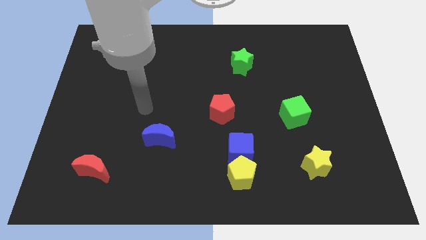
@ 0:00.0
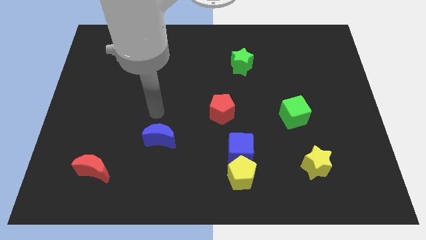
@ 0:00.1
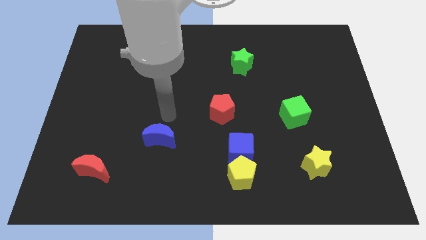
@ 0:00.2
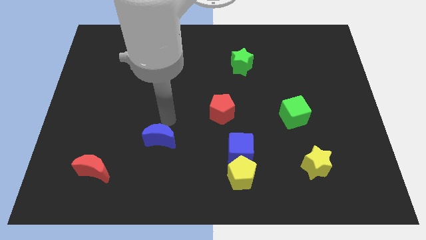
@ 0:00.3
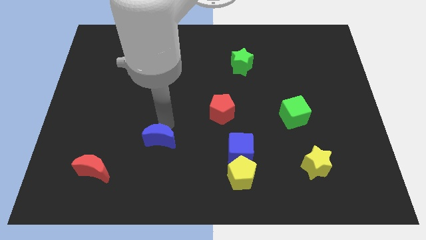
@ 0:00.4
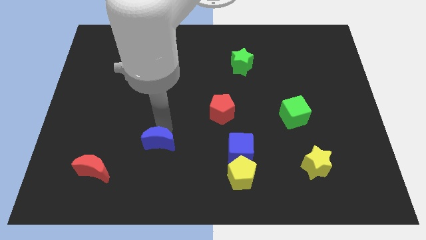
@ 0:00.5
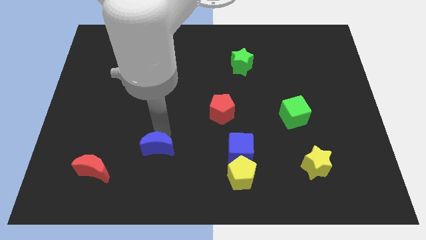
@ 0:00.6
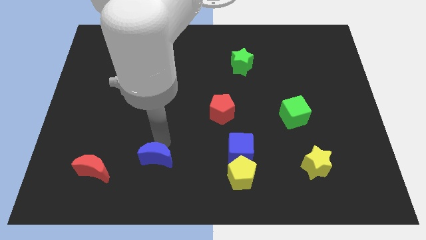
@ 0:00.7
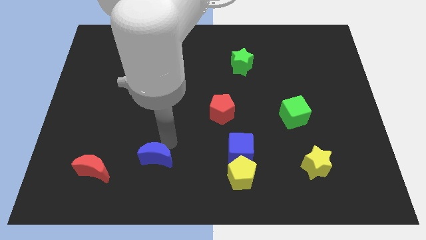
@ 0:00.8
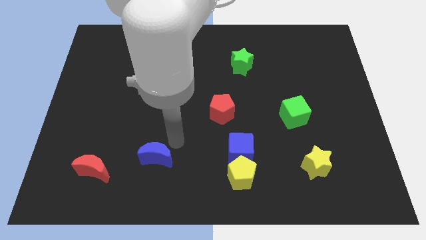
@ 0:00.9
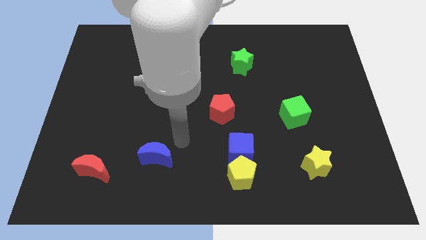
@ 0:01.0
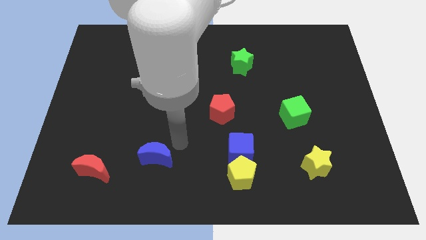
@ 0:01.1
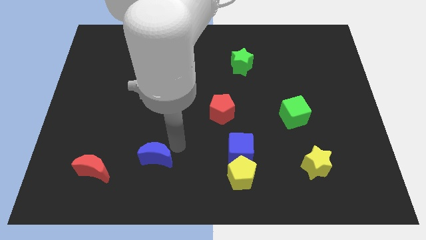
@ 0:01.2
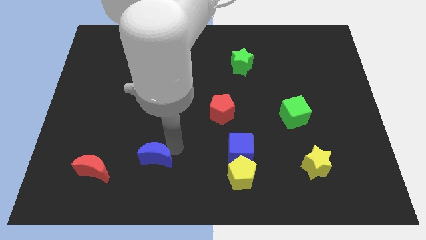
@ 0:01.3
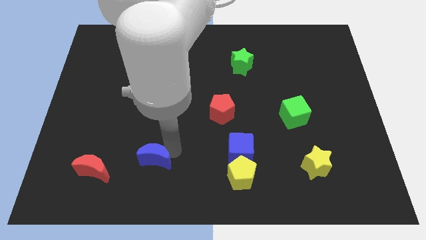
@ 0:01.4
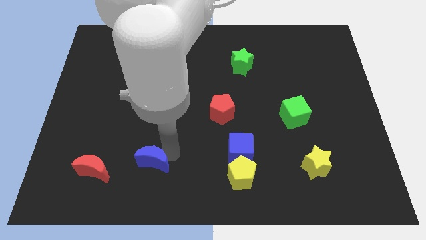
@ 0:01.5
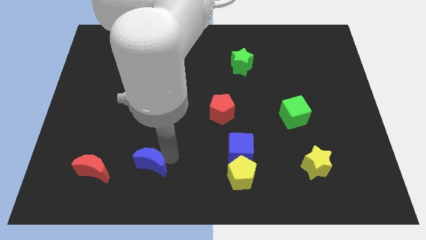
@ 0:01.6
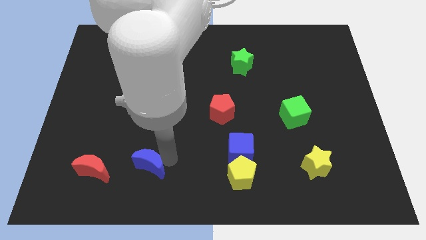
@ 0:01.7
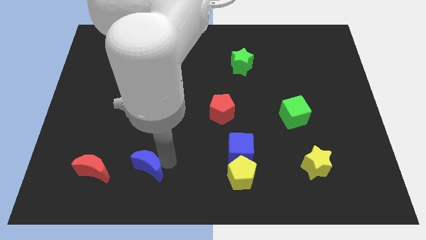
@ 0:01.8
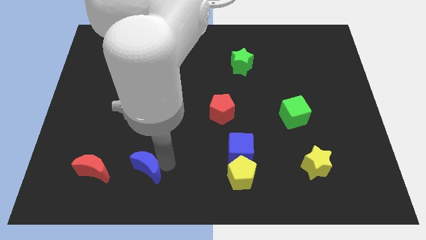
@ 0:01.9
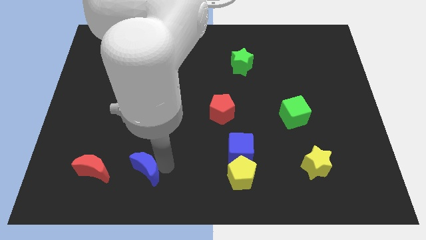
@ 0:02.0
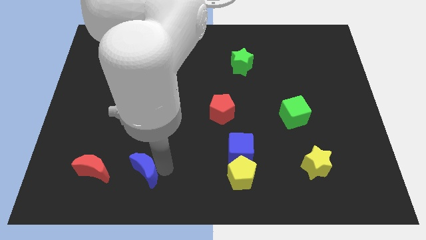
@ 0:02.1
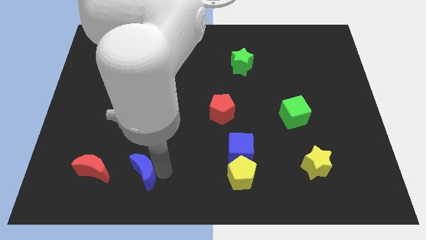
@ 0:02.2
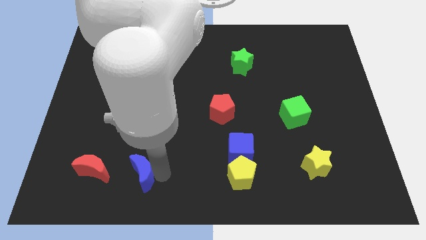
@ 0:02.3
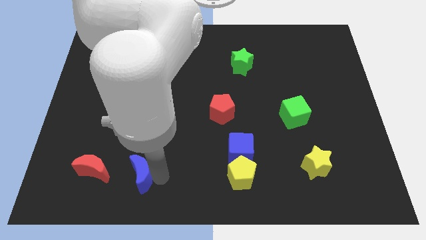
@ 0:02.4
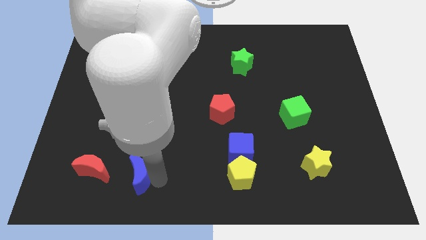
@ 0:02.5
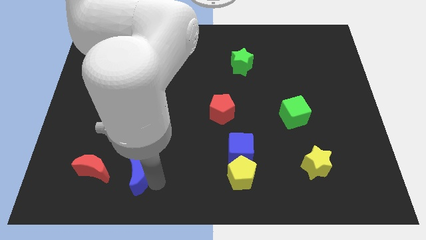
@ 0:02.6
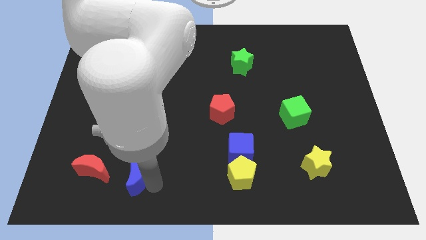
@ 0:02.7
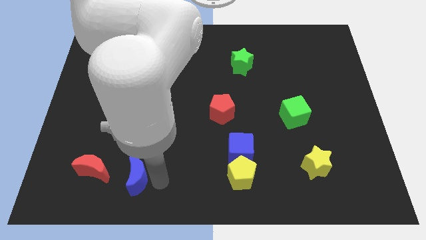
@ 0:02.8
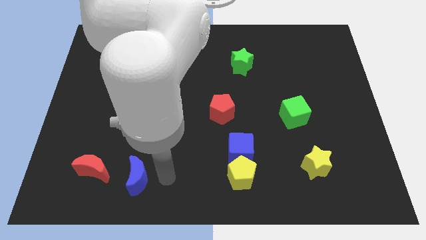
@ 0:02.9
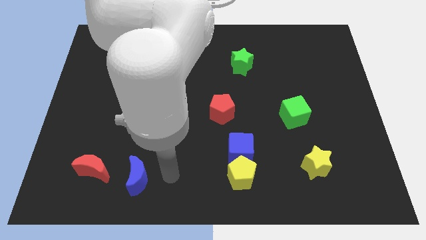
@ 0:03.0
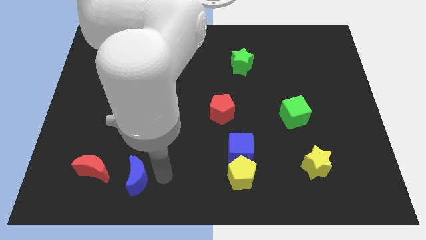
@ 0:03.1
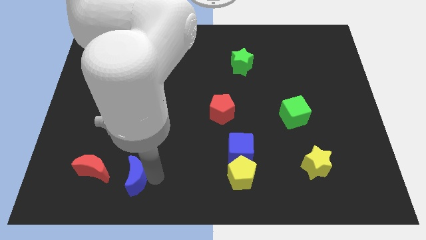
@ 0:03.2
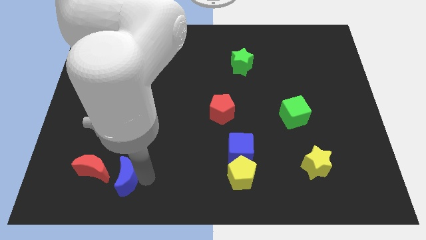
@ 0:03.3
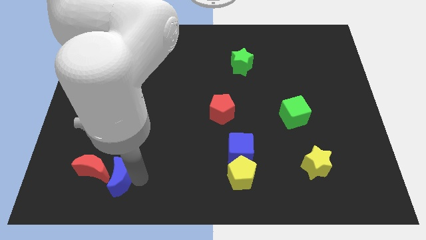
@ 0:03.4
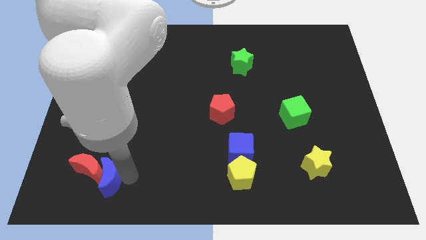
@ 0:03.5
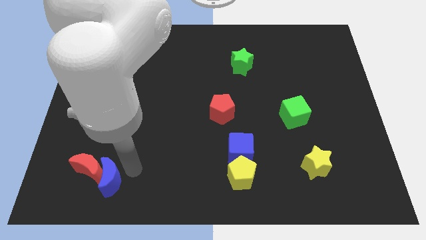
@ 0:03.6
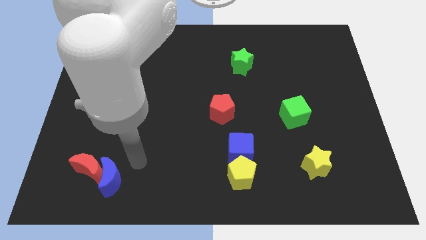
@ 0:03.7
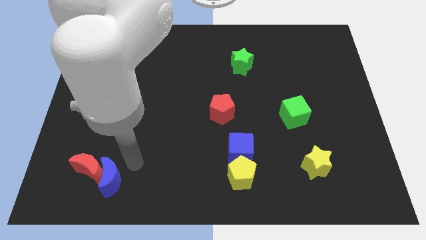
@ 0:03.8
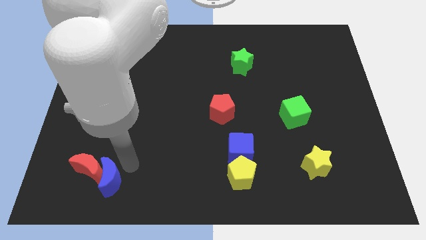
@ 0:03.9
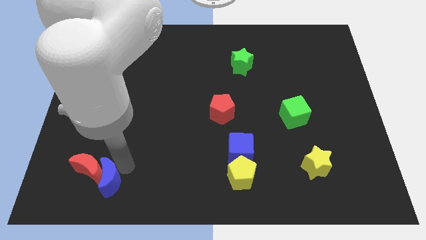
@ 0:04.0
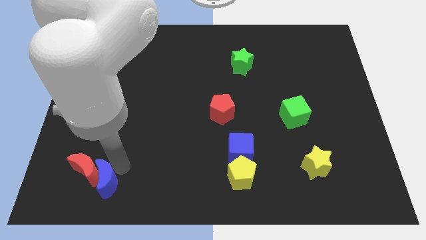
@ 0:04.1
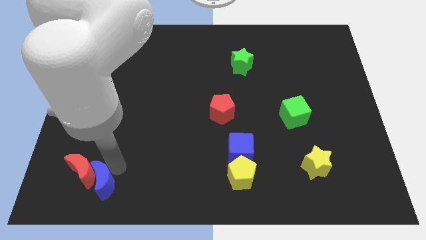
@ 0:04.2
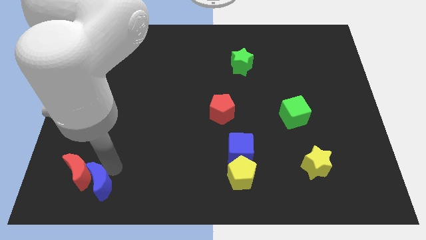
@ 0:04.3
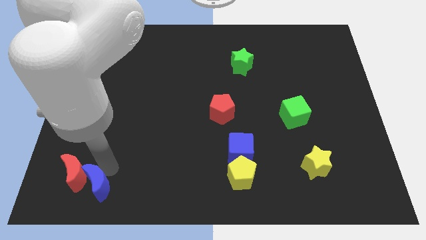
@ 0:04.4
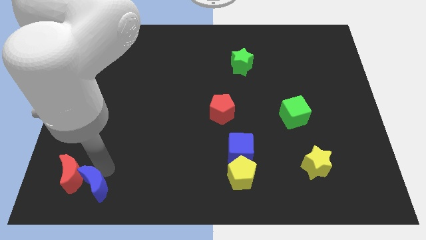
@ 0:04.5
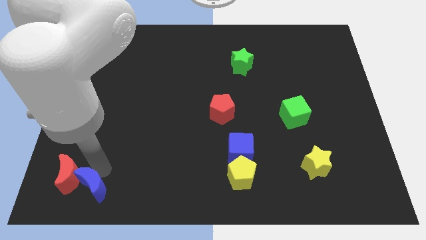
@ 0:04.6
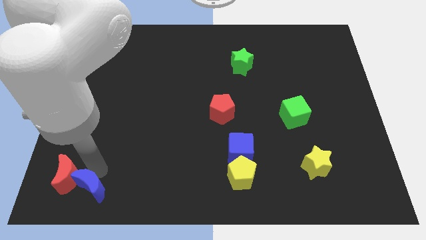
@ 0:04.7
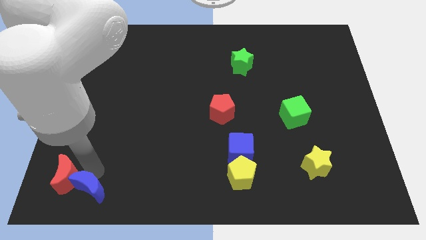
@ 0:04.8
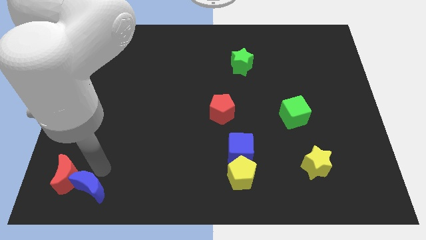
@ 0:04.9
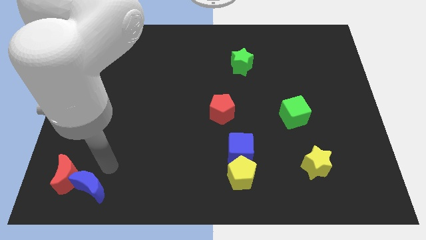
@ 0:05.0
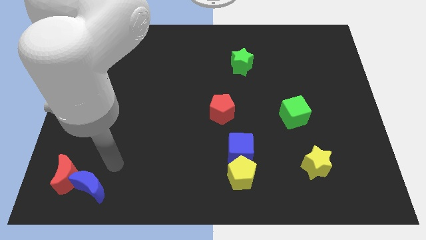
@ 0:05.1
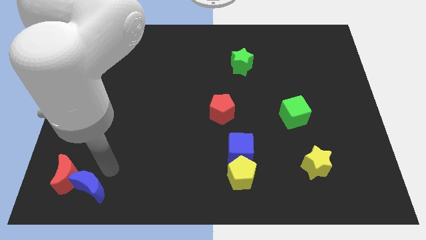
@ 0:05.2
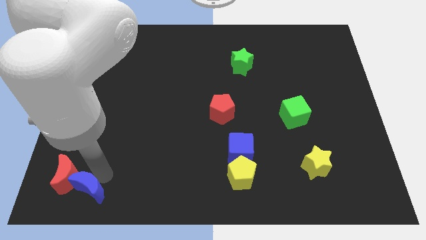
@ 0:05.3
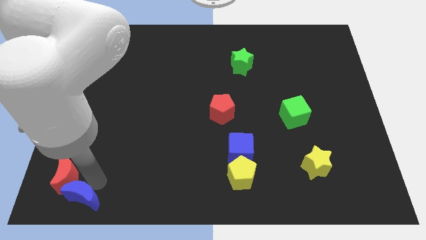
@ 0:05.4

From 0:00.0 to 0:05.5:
move the blue moon to the lower left corner

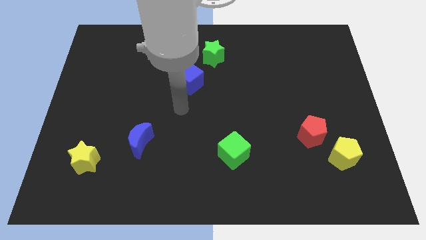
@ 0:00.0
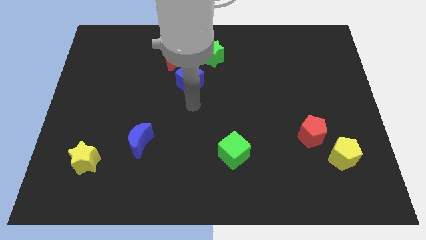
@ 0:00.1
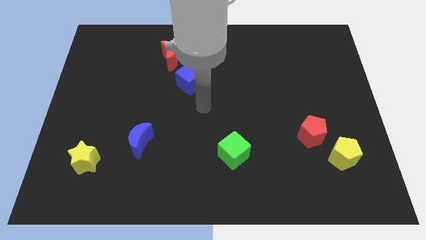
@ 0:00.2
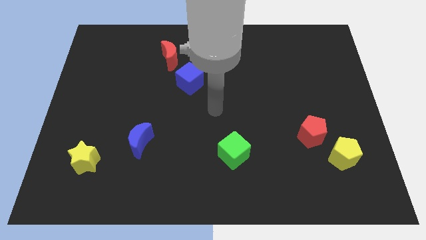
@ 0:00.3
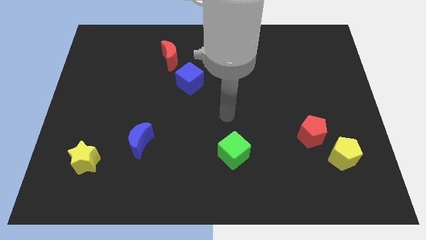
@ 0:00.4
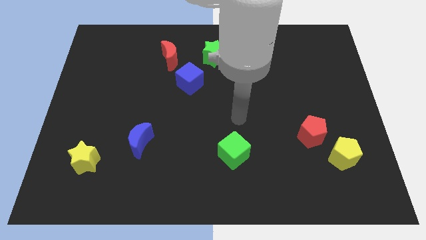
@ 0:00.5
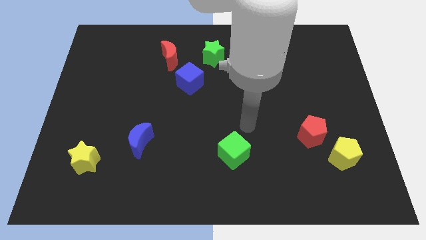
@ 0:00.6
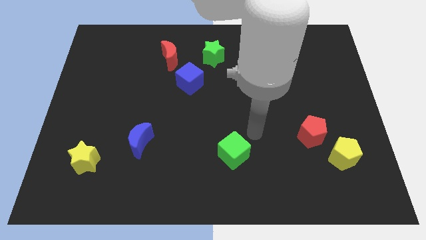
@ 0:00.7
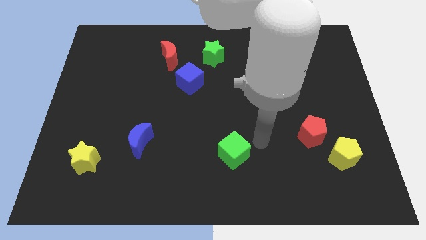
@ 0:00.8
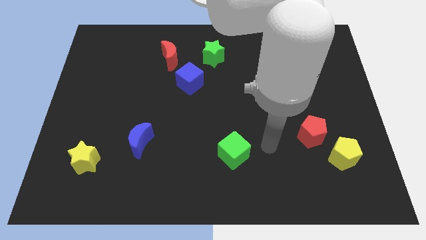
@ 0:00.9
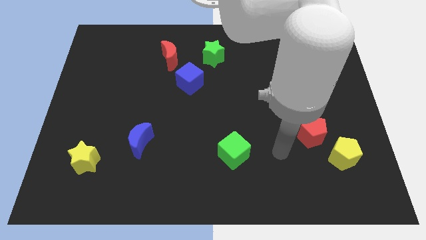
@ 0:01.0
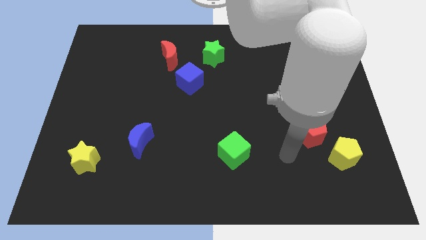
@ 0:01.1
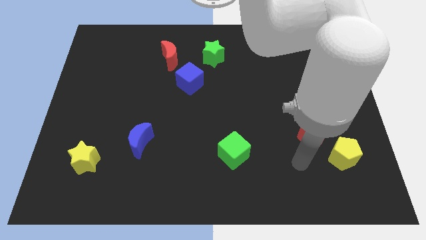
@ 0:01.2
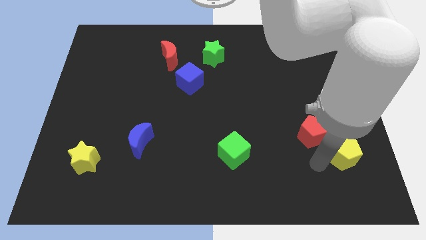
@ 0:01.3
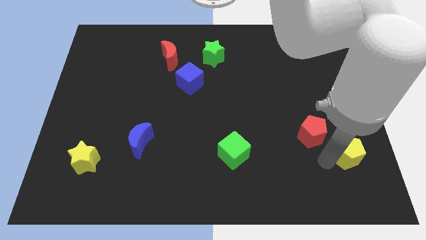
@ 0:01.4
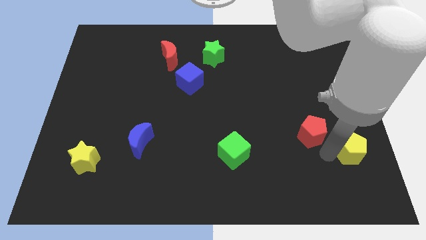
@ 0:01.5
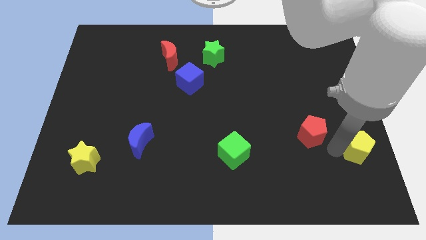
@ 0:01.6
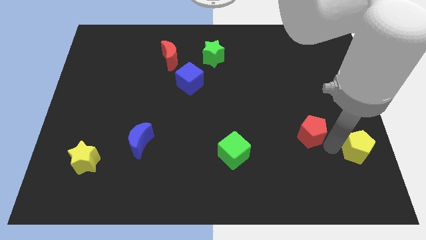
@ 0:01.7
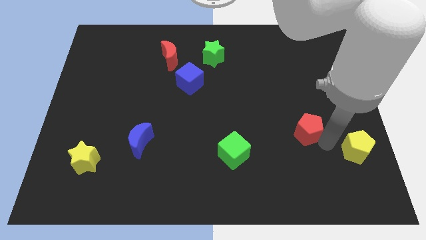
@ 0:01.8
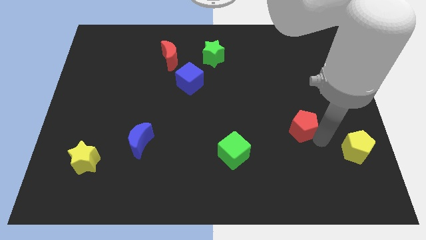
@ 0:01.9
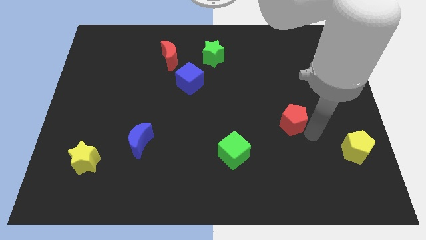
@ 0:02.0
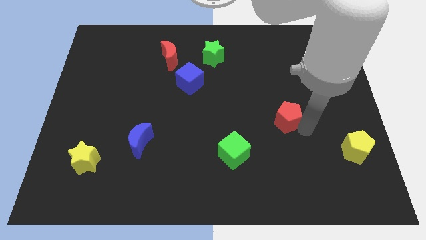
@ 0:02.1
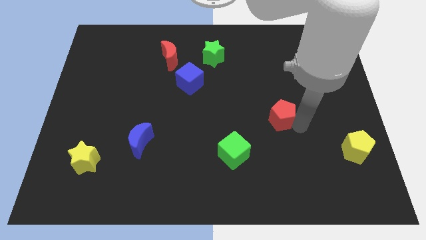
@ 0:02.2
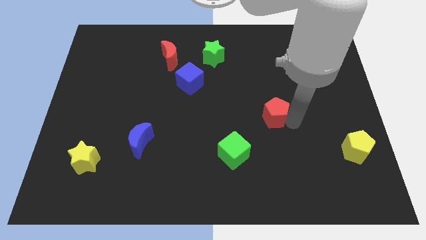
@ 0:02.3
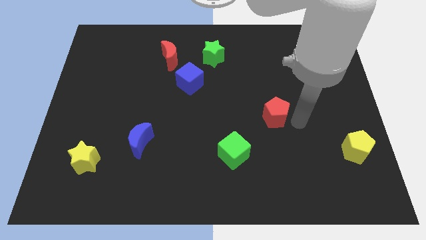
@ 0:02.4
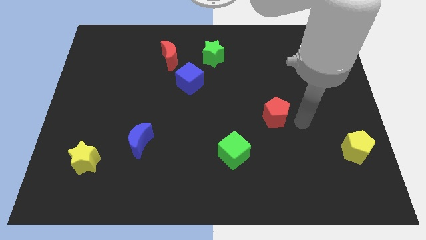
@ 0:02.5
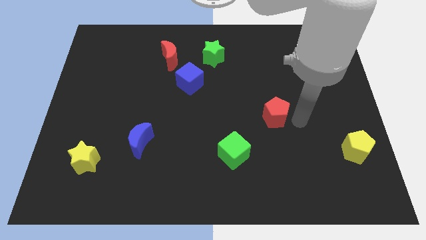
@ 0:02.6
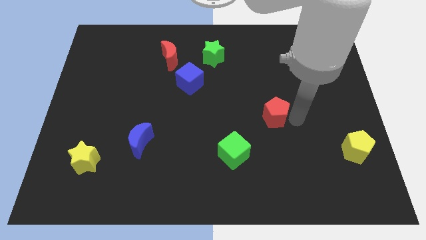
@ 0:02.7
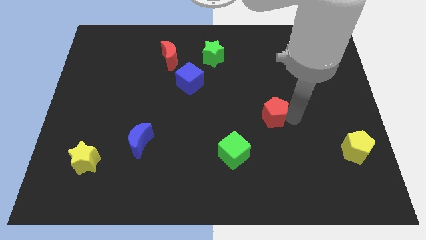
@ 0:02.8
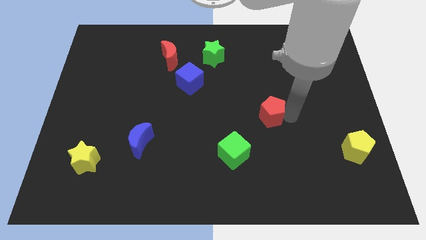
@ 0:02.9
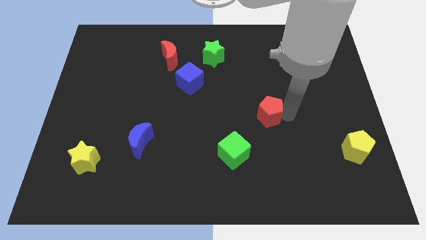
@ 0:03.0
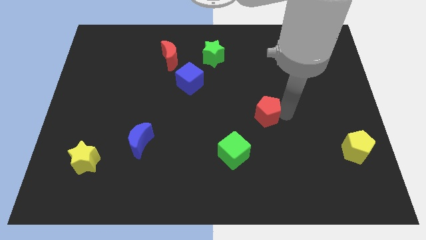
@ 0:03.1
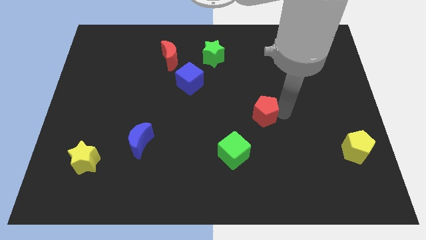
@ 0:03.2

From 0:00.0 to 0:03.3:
slide the red pentagon to the middle of the board
